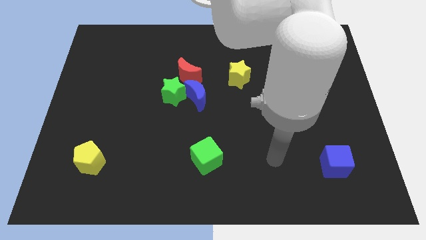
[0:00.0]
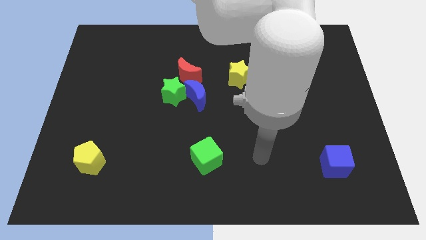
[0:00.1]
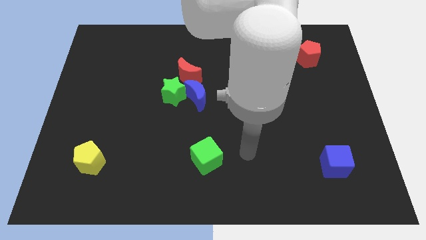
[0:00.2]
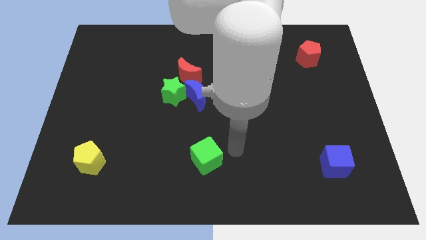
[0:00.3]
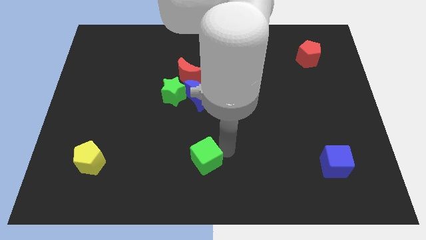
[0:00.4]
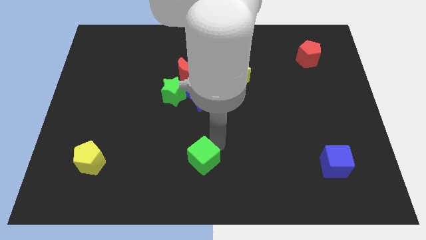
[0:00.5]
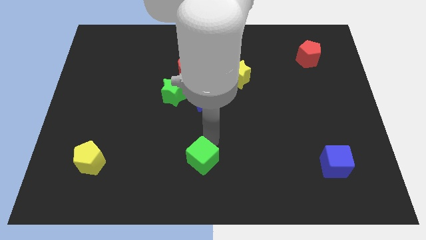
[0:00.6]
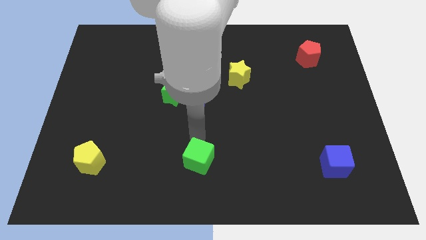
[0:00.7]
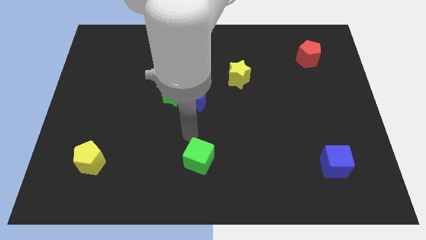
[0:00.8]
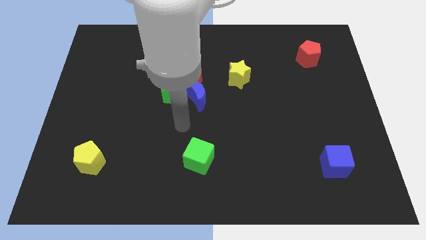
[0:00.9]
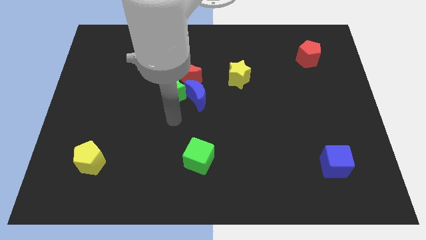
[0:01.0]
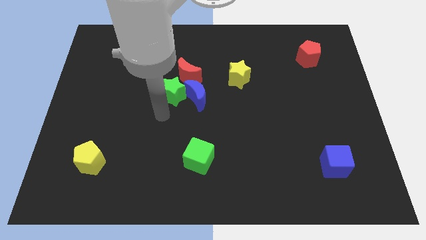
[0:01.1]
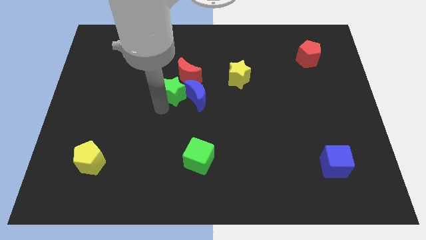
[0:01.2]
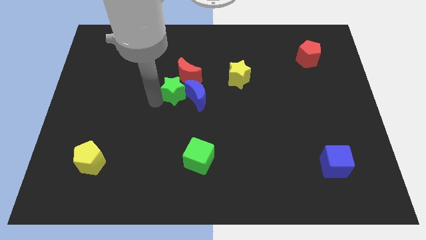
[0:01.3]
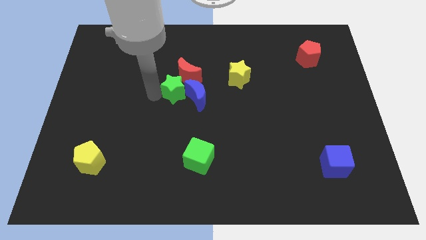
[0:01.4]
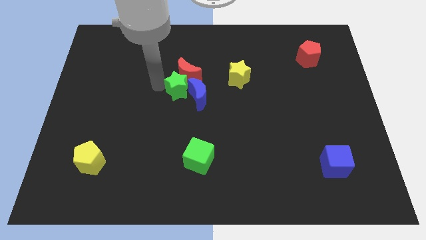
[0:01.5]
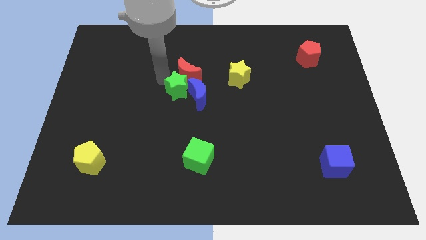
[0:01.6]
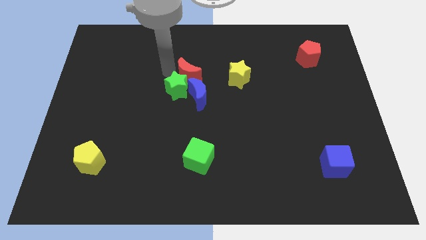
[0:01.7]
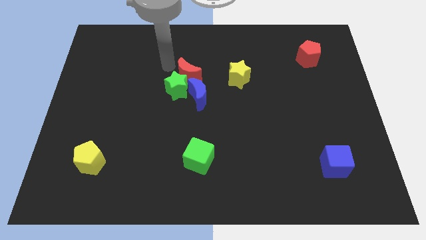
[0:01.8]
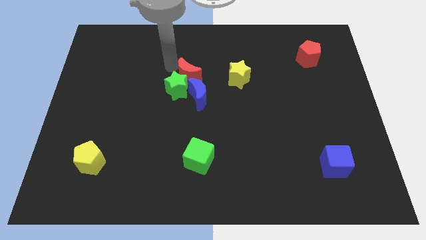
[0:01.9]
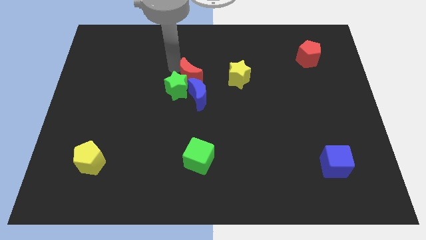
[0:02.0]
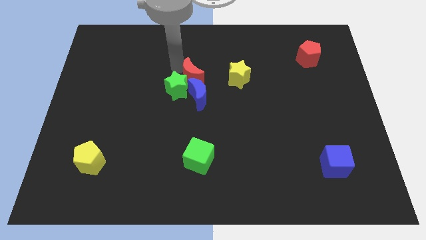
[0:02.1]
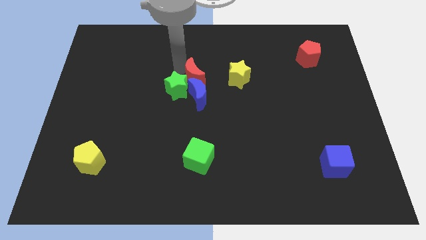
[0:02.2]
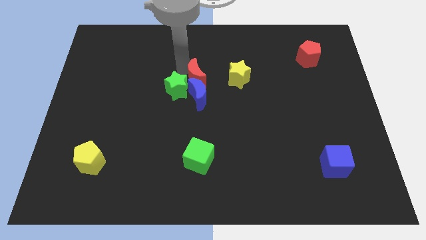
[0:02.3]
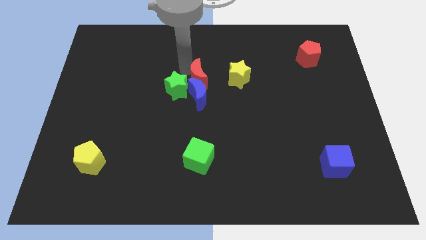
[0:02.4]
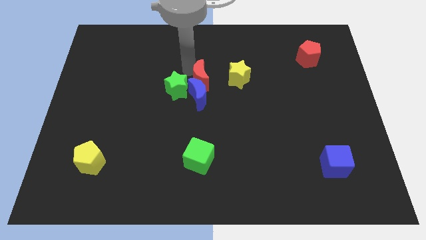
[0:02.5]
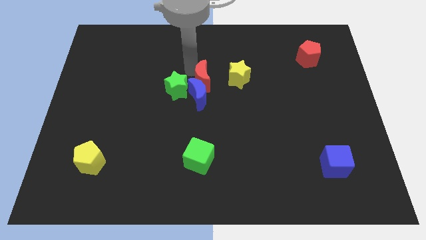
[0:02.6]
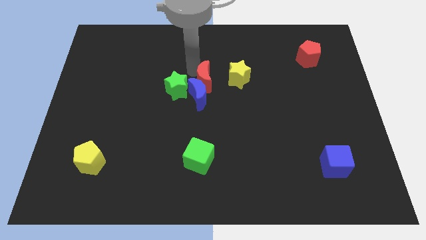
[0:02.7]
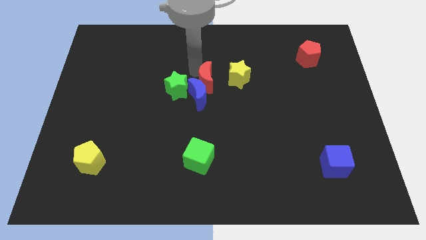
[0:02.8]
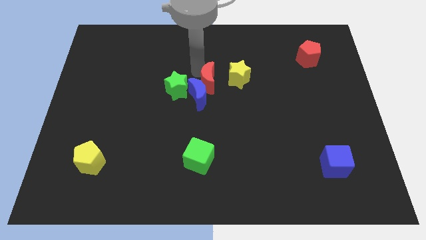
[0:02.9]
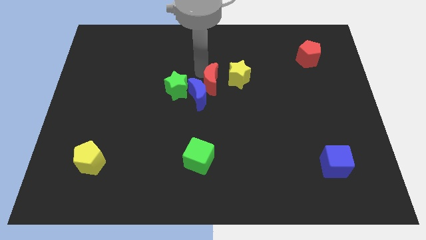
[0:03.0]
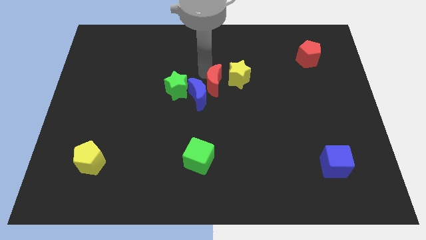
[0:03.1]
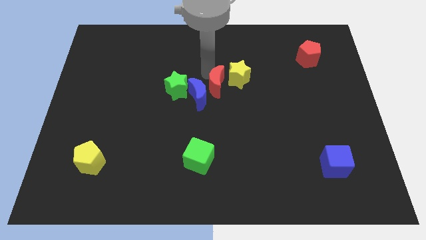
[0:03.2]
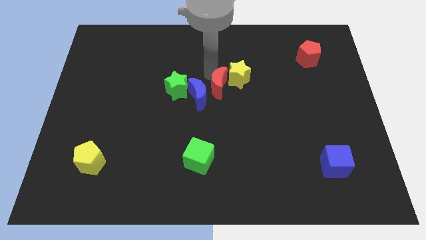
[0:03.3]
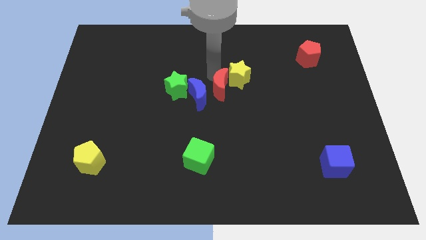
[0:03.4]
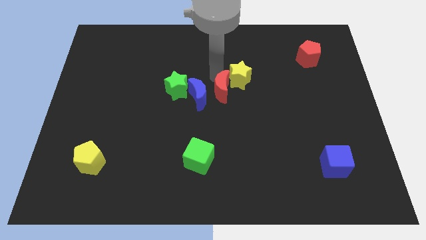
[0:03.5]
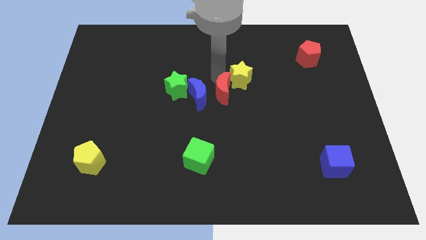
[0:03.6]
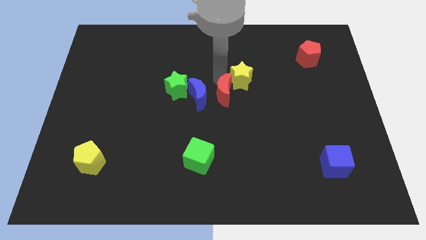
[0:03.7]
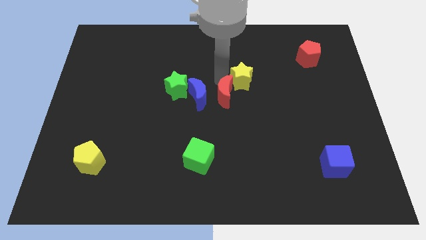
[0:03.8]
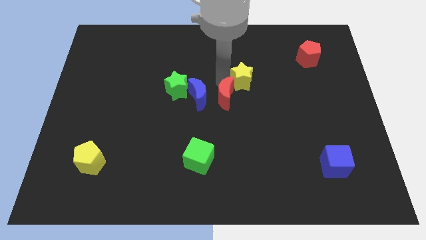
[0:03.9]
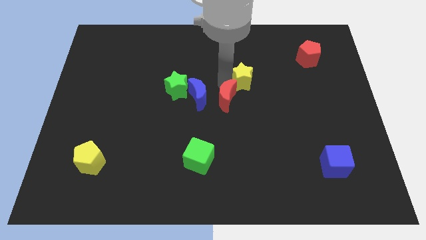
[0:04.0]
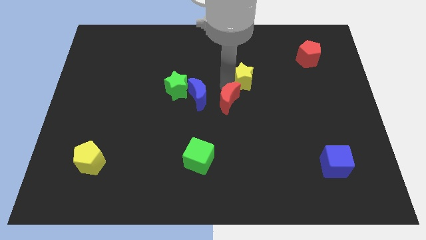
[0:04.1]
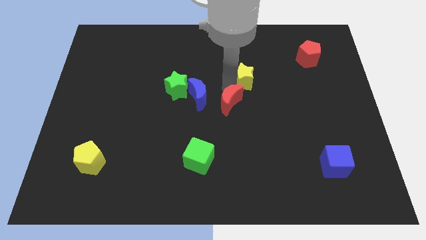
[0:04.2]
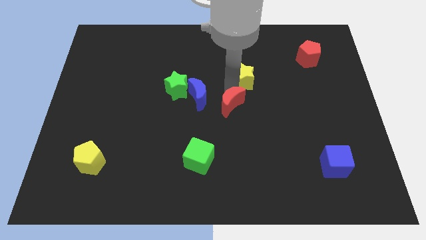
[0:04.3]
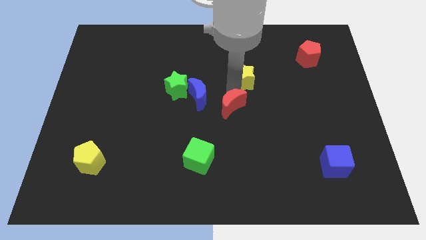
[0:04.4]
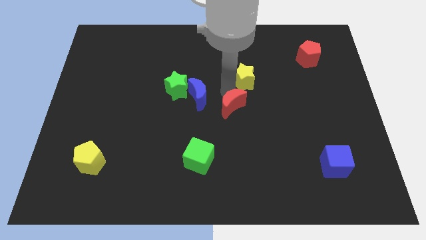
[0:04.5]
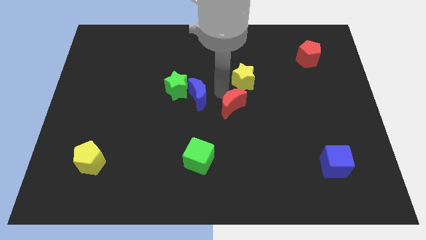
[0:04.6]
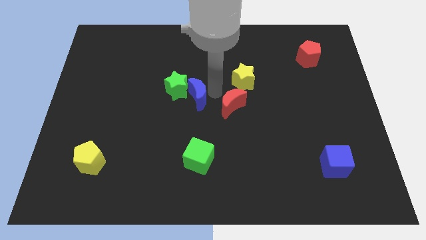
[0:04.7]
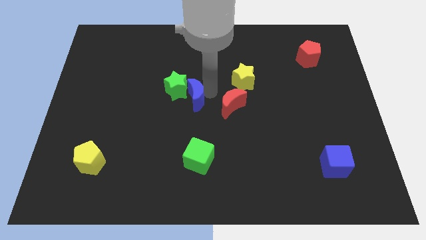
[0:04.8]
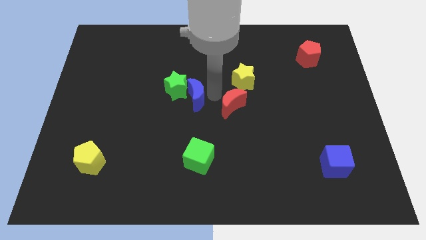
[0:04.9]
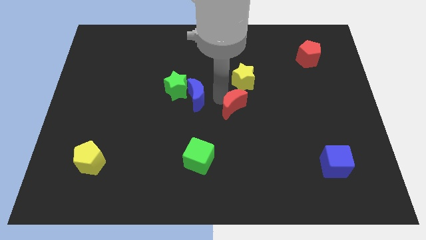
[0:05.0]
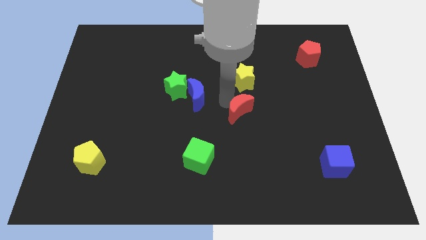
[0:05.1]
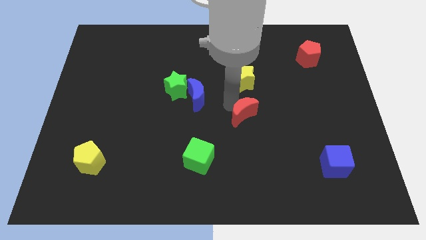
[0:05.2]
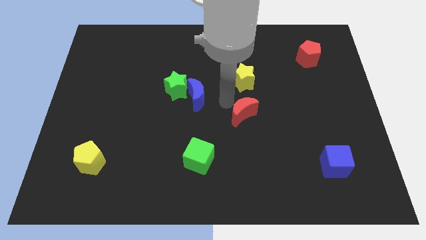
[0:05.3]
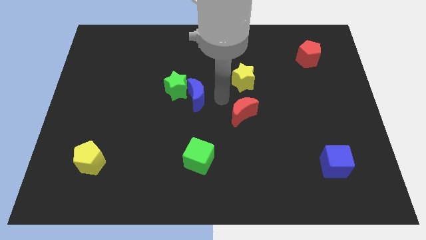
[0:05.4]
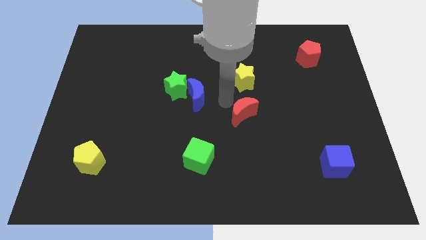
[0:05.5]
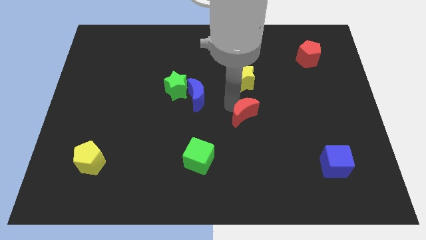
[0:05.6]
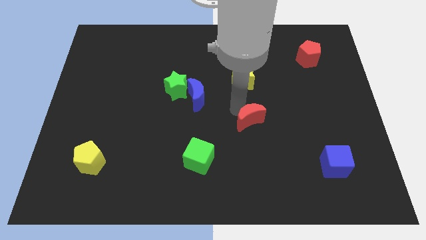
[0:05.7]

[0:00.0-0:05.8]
move the red moon down and then right

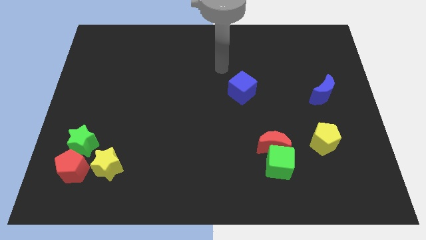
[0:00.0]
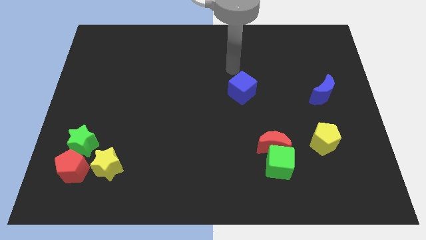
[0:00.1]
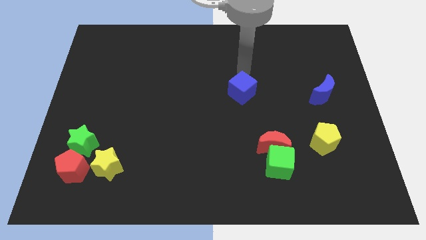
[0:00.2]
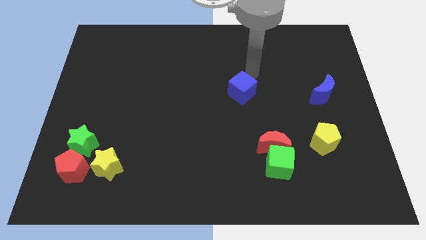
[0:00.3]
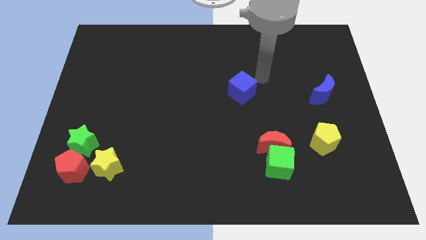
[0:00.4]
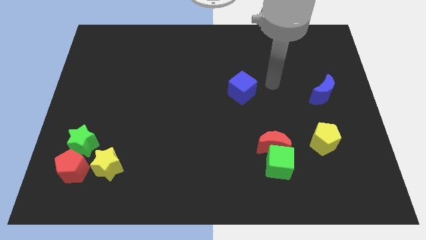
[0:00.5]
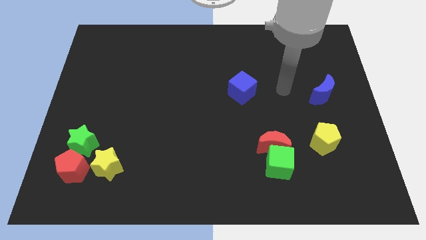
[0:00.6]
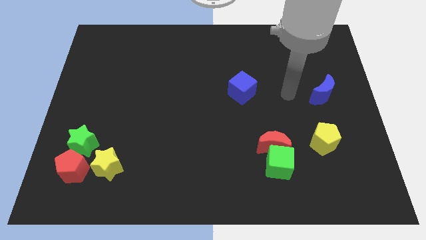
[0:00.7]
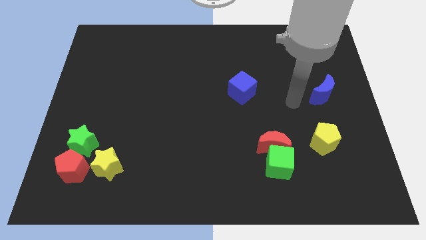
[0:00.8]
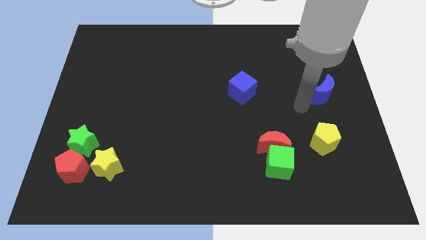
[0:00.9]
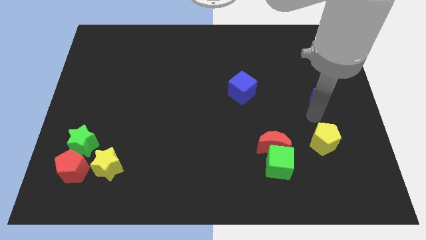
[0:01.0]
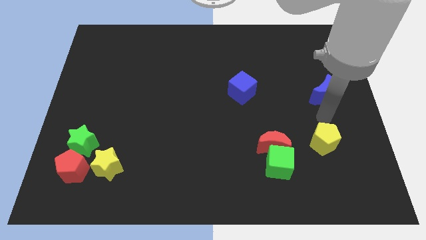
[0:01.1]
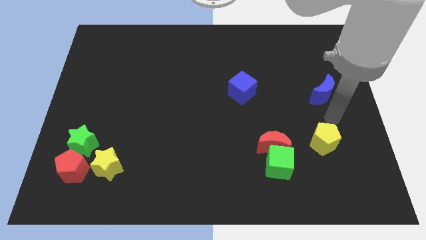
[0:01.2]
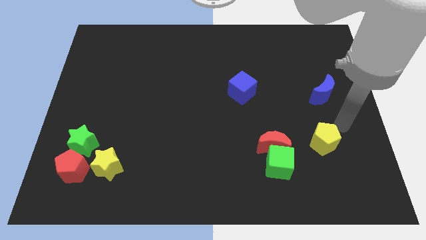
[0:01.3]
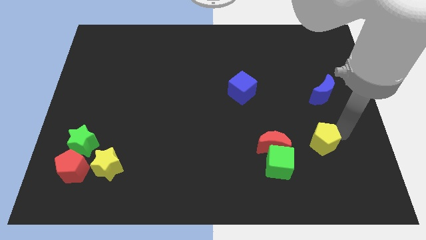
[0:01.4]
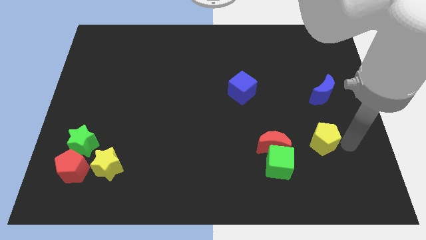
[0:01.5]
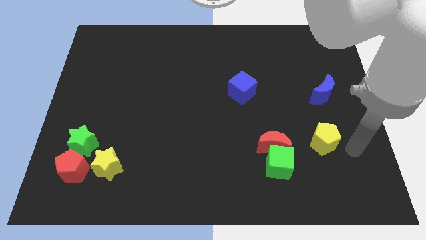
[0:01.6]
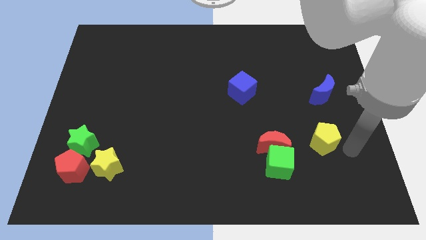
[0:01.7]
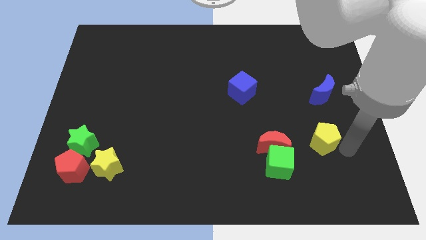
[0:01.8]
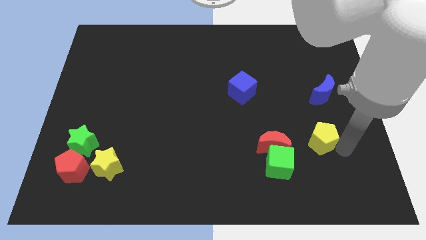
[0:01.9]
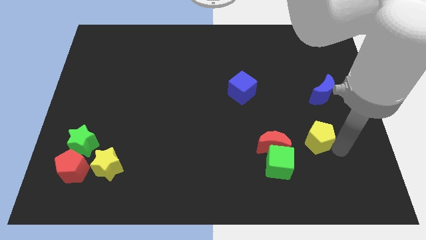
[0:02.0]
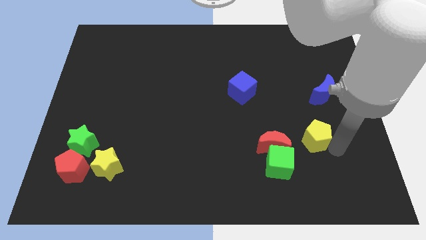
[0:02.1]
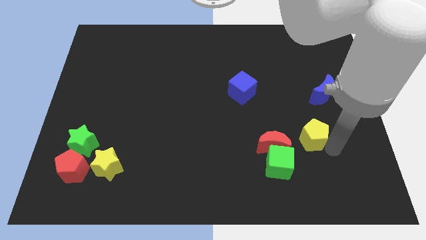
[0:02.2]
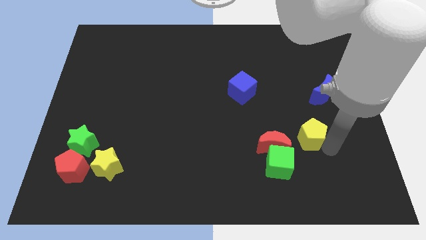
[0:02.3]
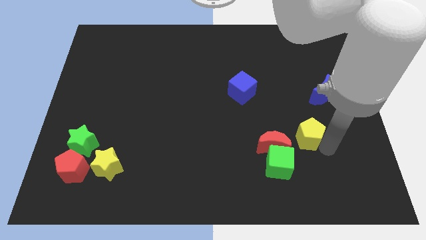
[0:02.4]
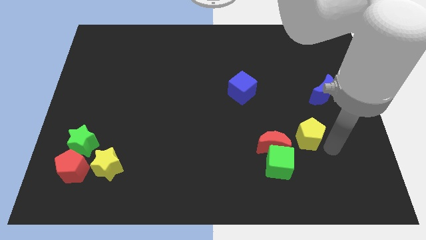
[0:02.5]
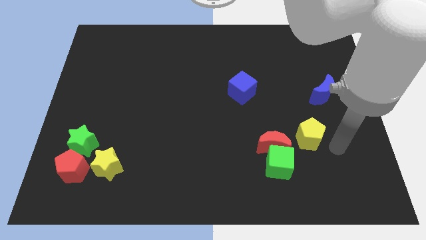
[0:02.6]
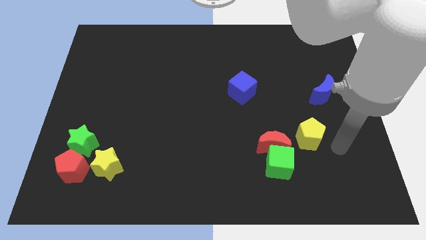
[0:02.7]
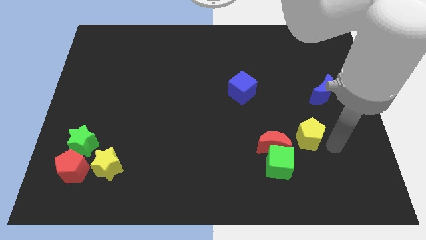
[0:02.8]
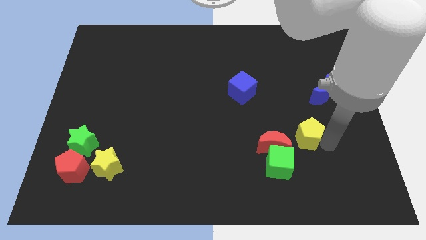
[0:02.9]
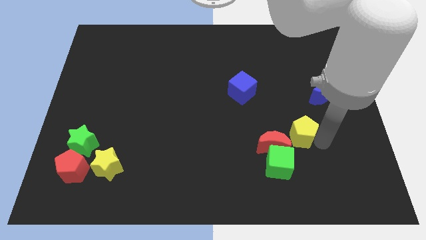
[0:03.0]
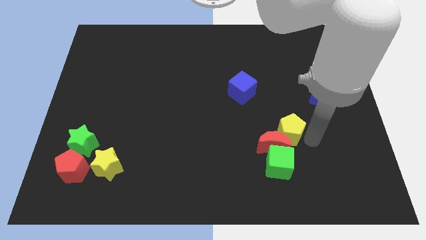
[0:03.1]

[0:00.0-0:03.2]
push the yellow pentagon left a little
